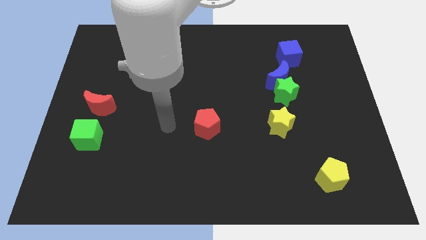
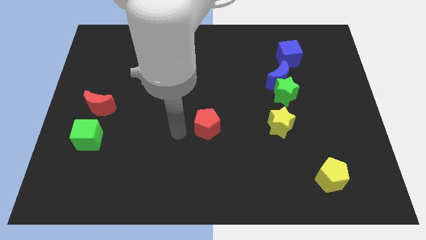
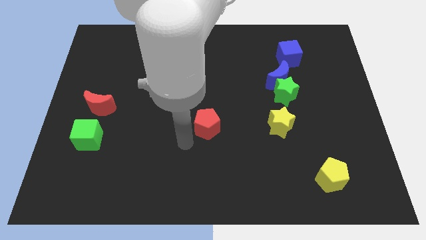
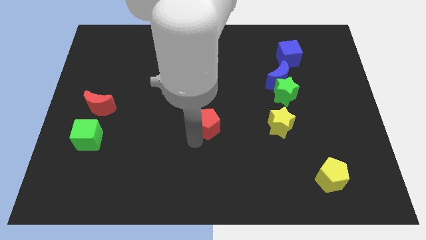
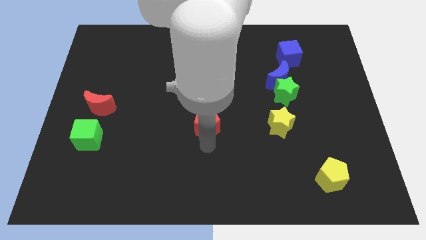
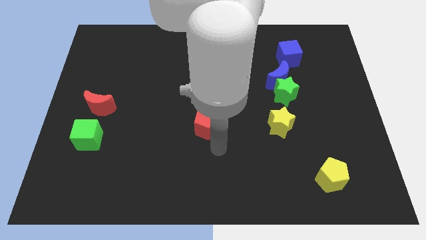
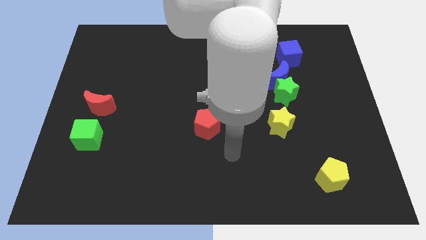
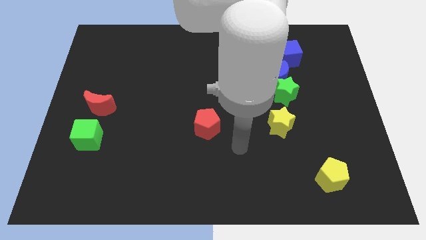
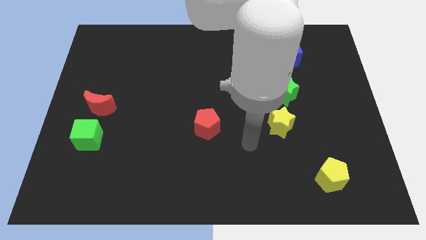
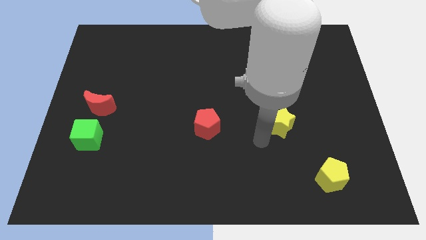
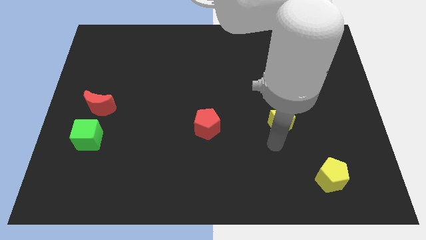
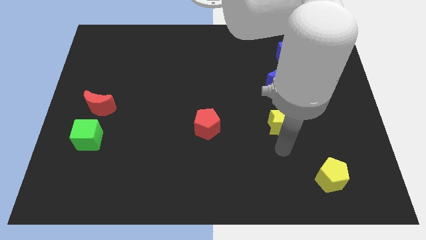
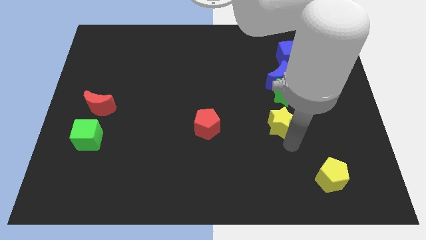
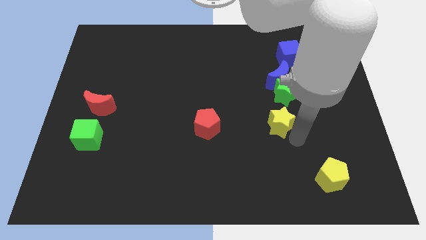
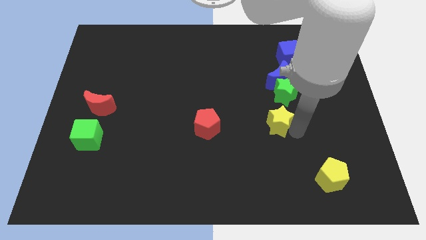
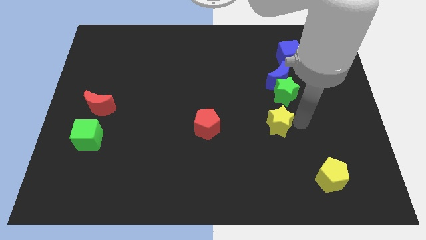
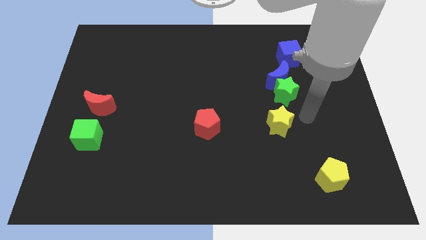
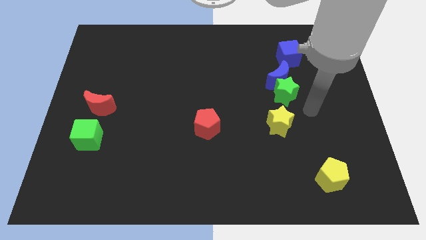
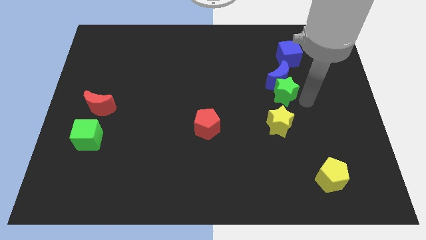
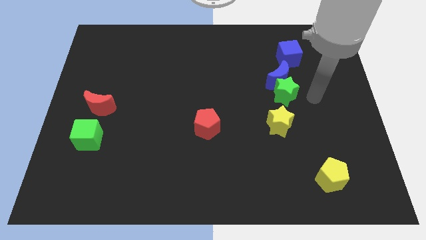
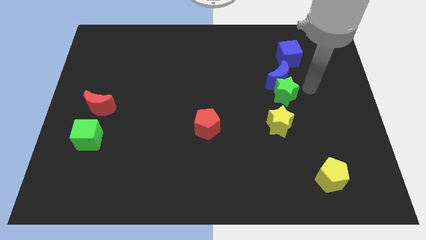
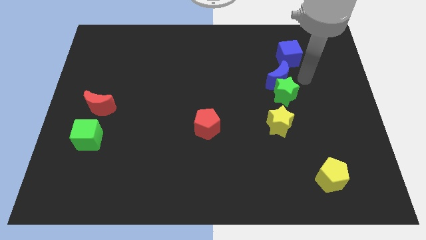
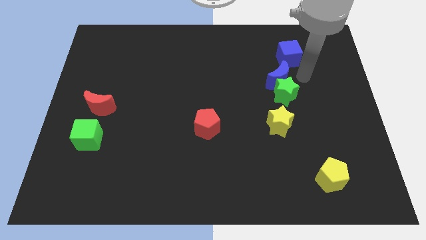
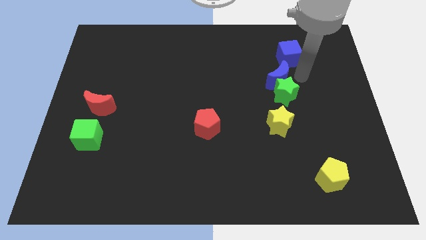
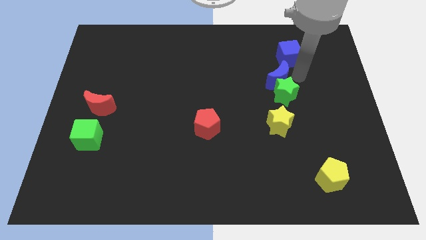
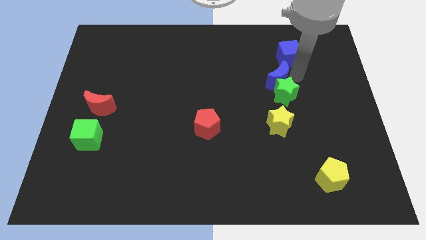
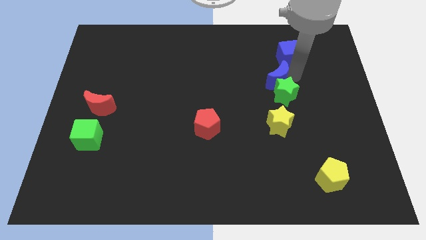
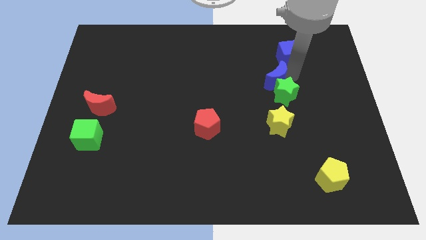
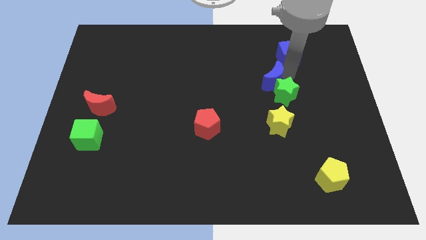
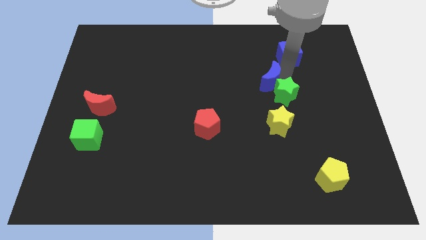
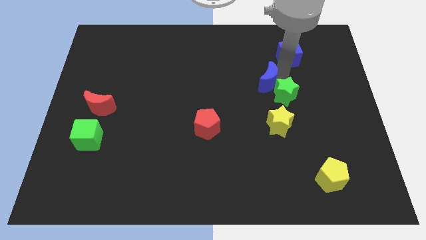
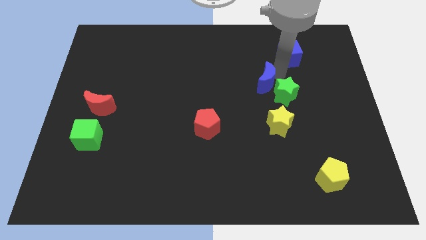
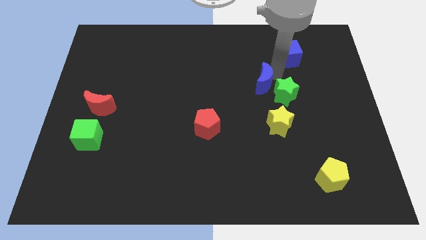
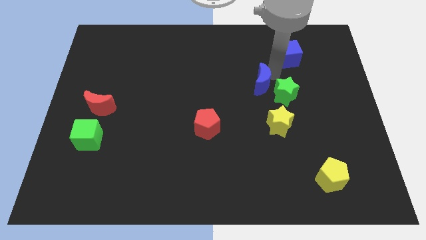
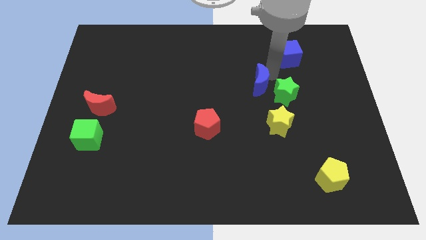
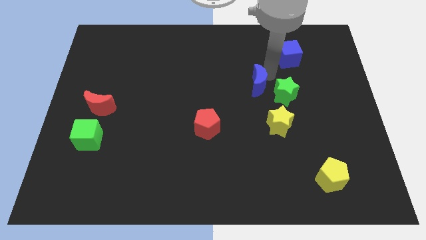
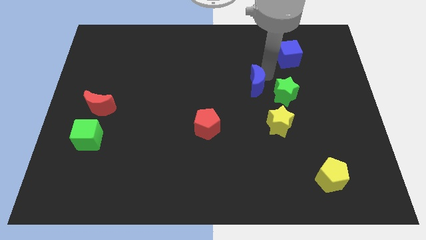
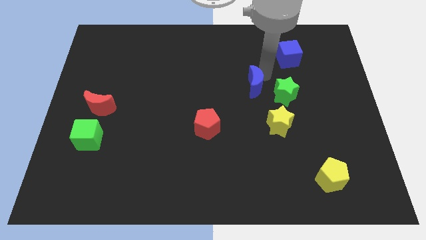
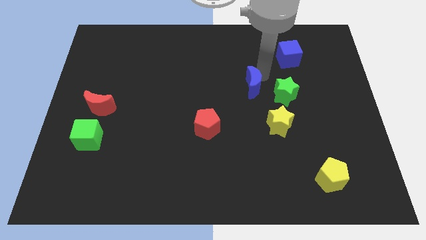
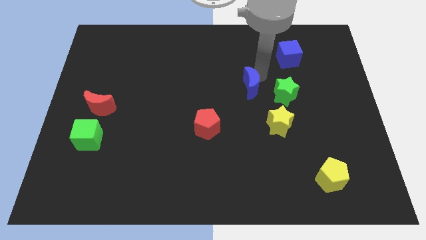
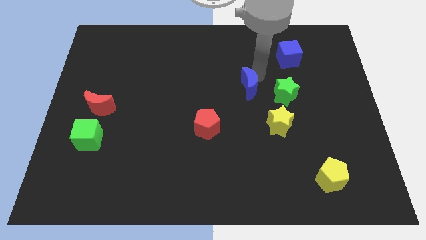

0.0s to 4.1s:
move the blue moon away from the green star and blue cube

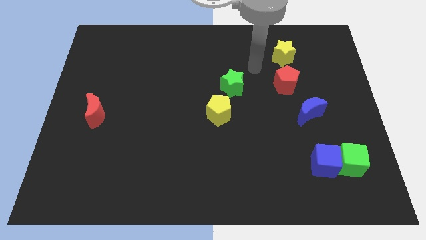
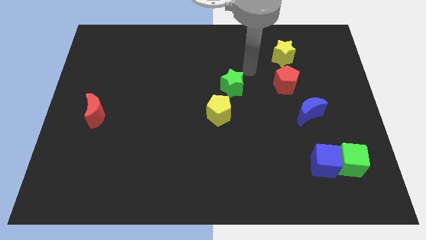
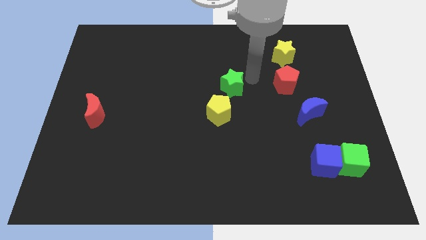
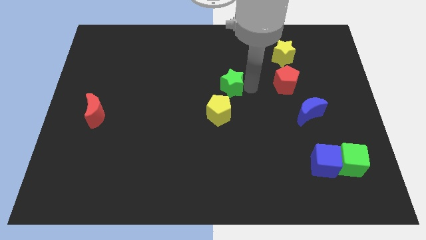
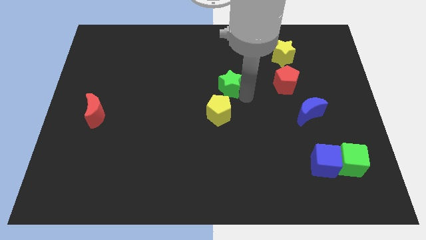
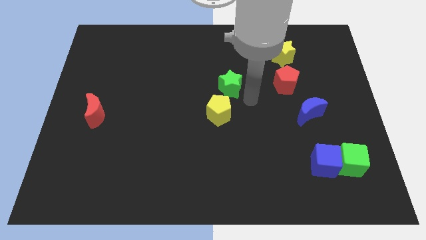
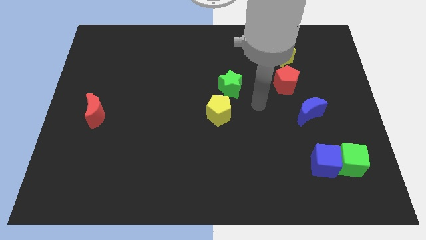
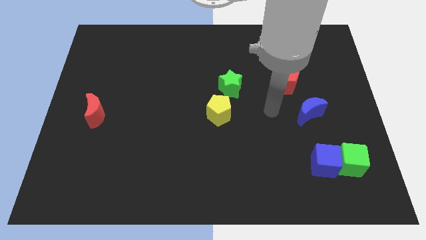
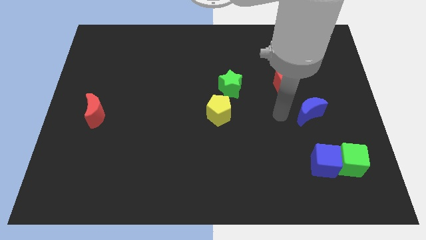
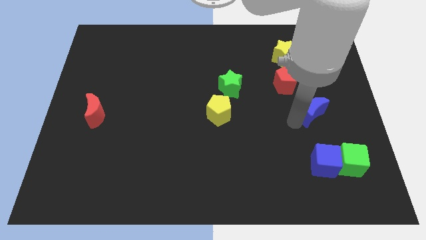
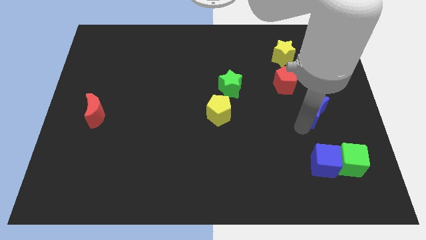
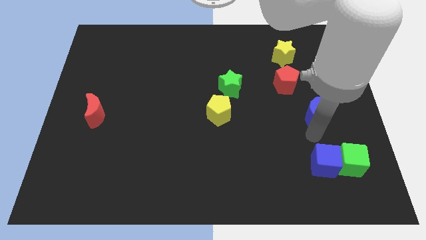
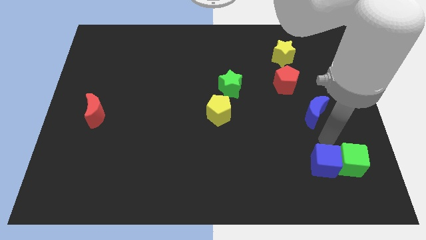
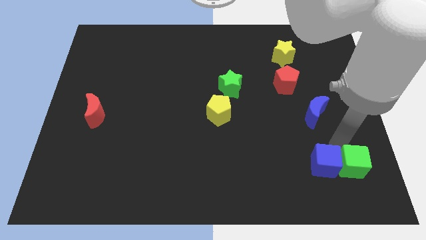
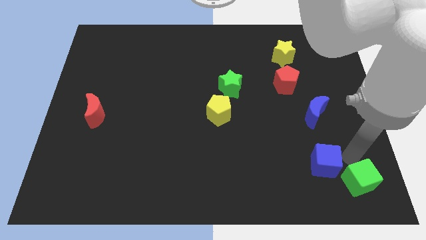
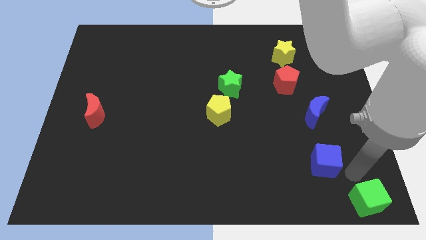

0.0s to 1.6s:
move the blue cube away from the green cube

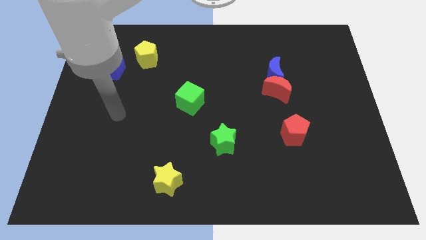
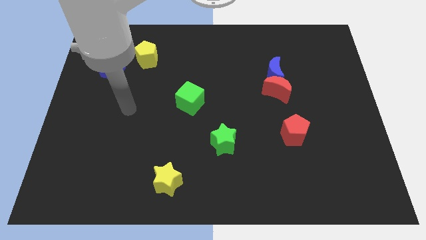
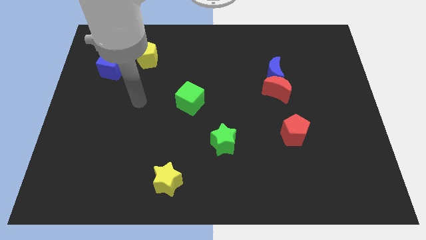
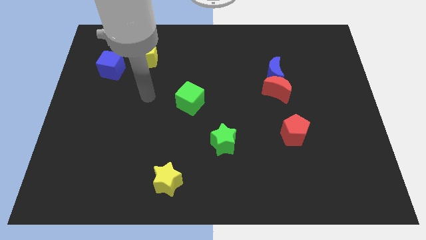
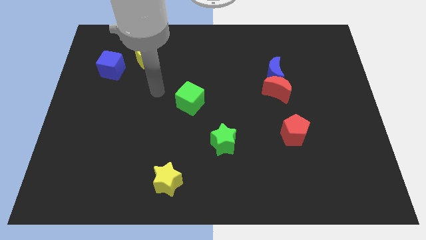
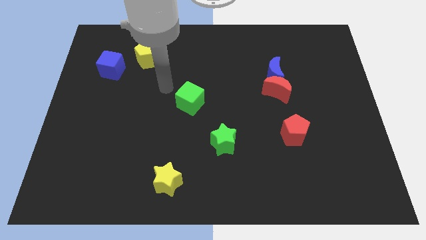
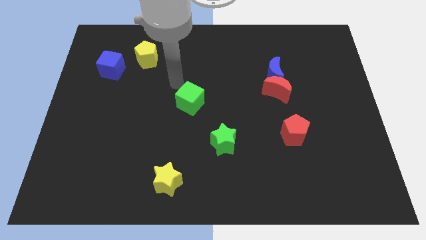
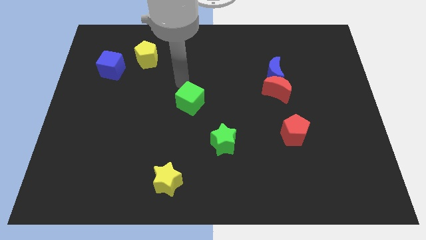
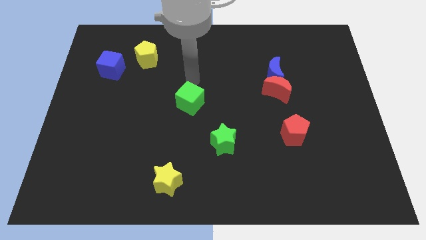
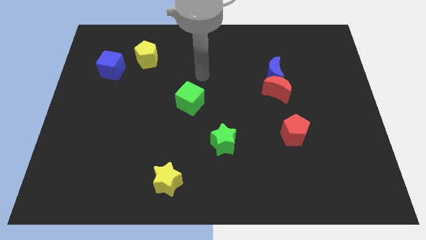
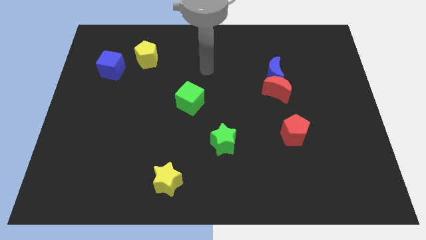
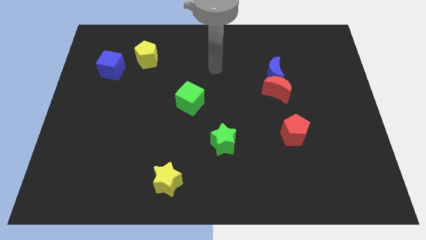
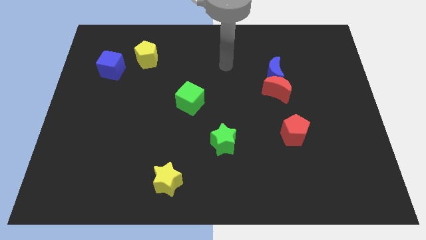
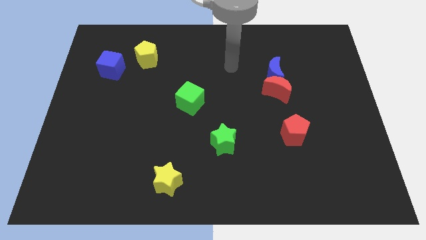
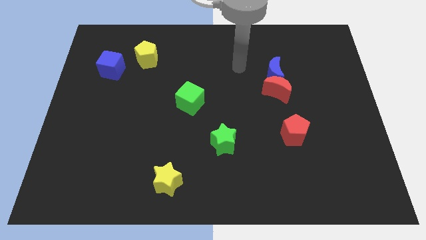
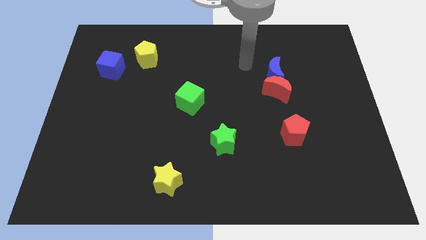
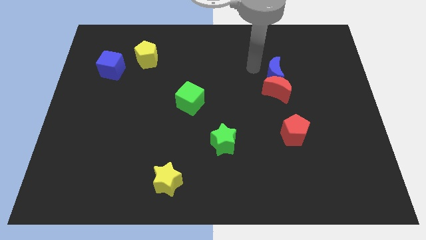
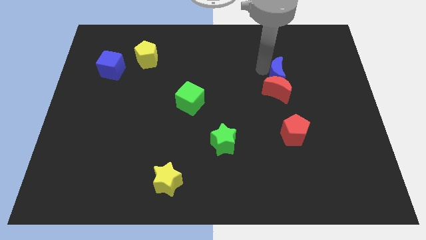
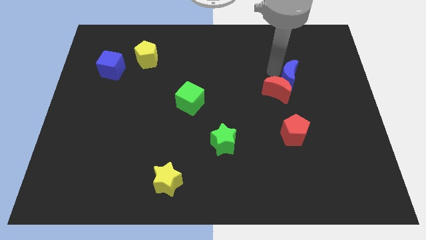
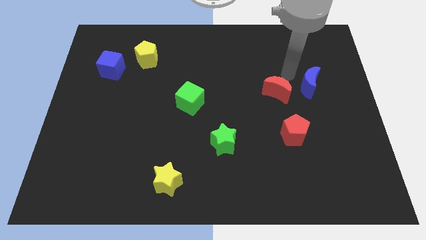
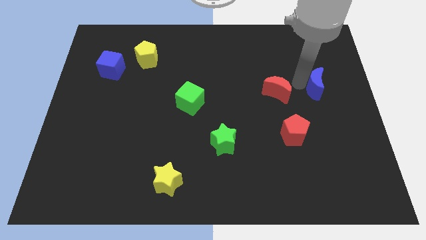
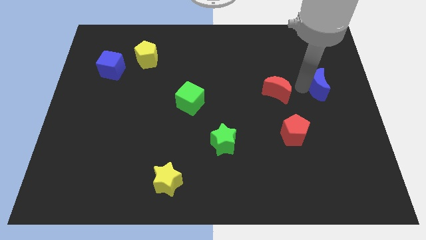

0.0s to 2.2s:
pull the red moon apart from the blue moon

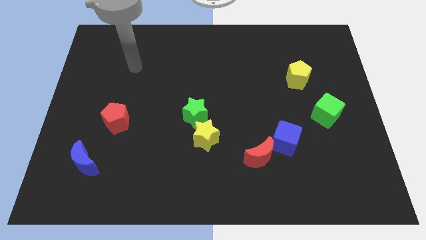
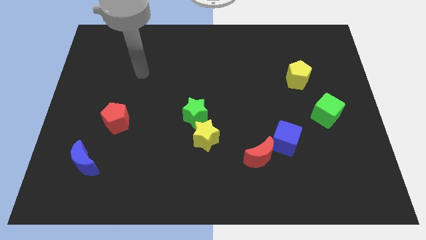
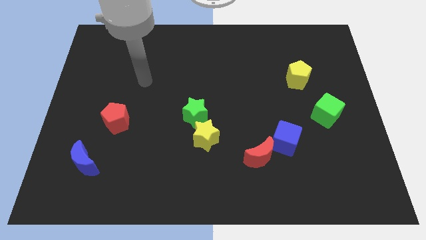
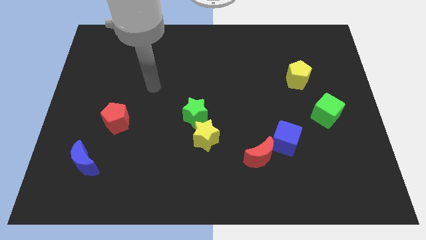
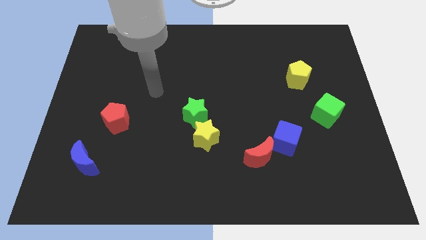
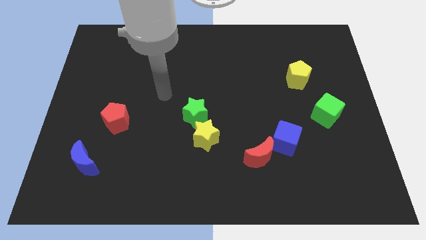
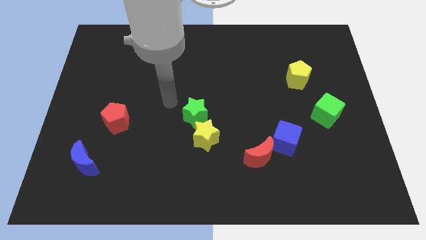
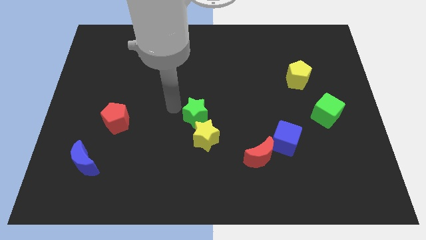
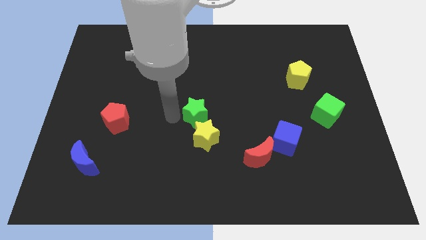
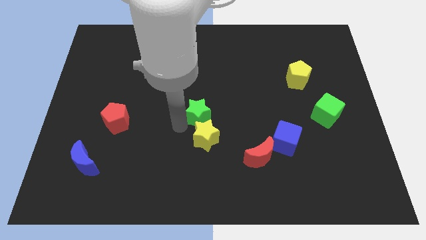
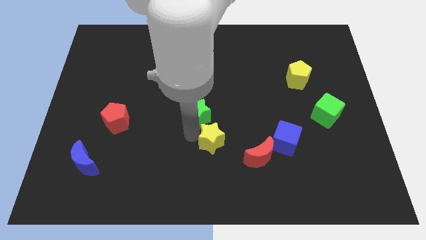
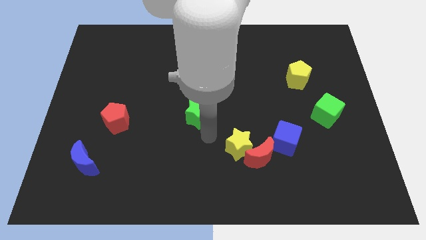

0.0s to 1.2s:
move the green star away from the yellow star

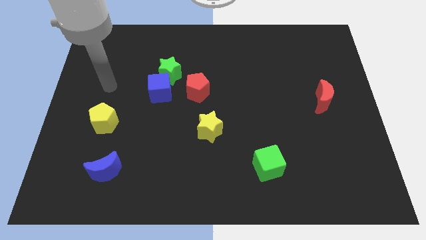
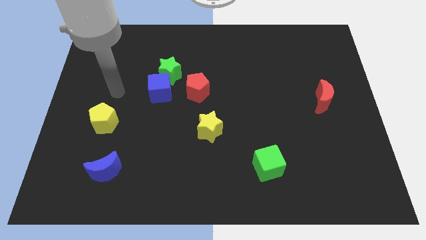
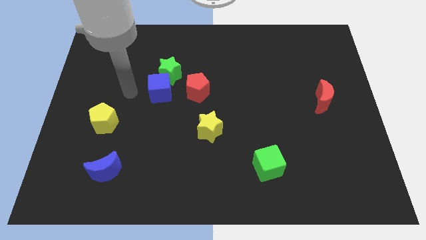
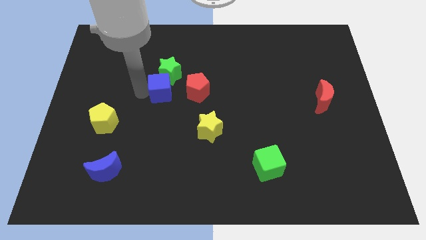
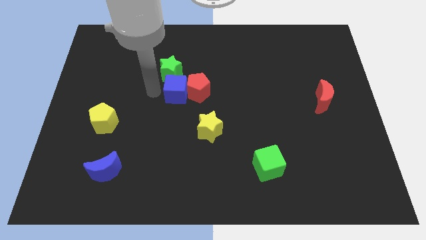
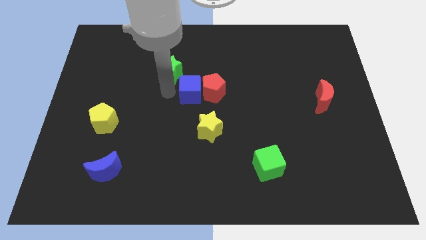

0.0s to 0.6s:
move the green star away from the blue cube and red pentagon
